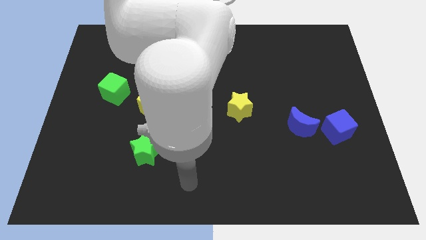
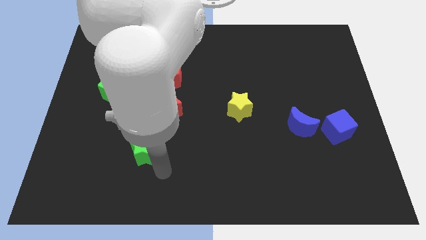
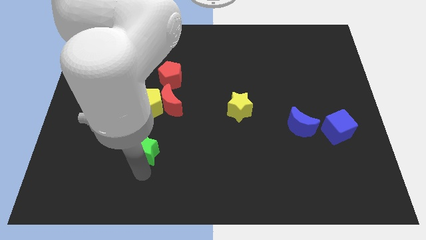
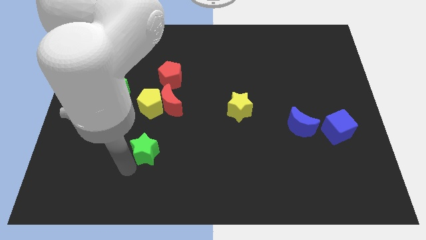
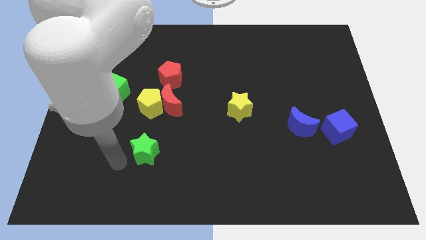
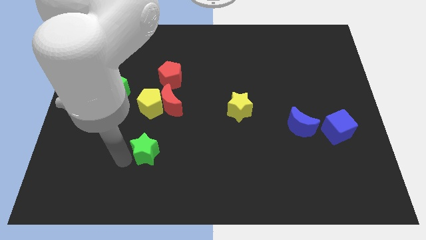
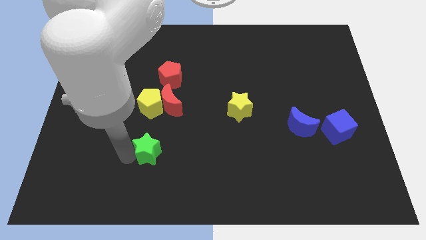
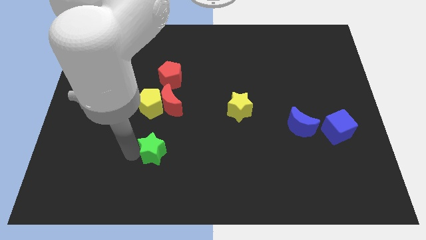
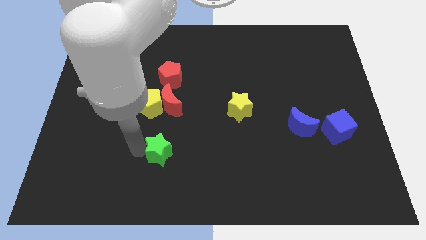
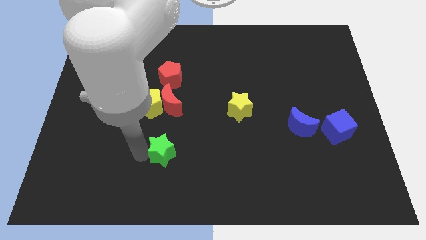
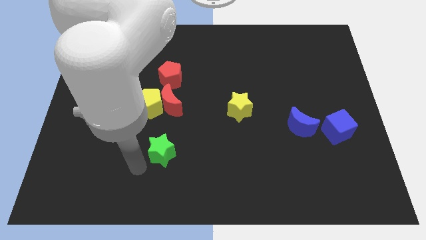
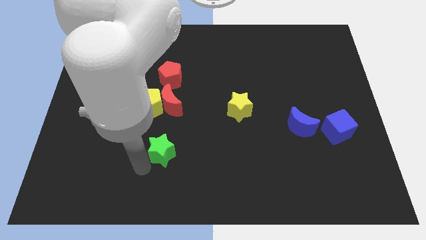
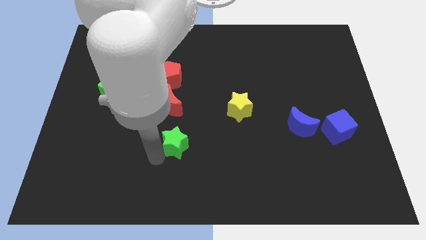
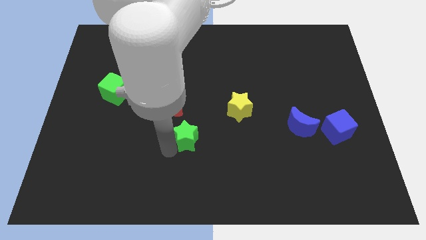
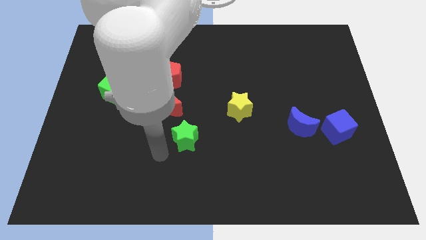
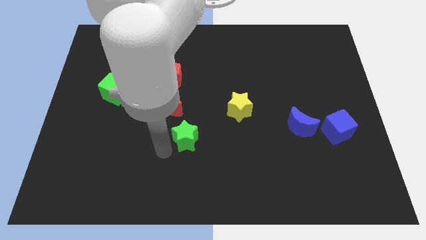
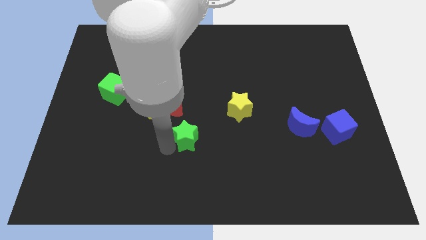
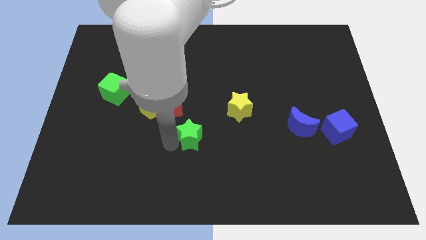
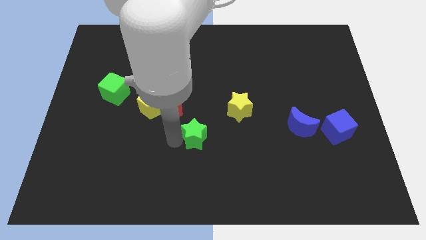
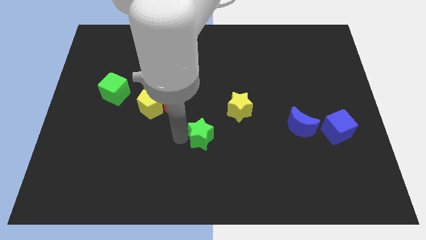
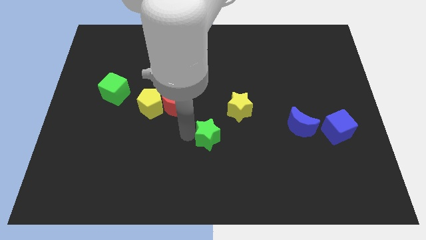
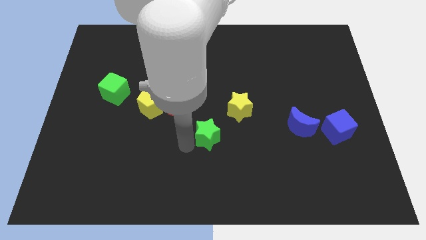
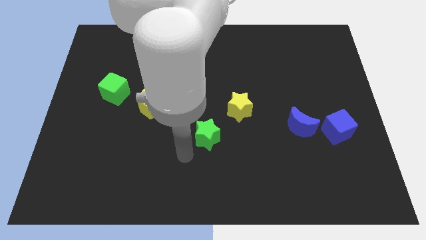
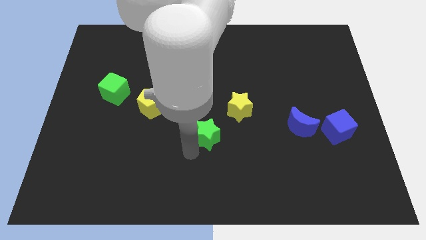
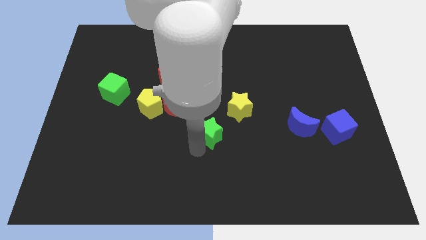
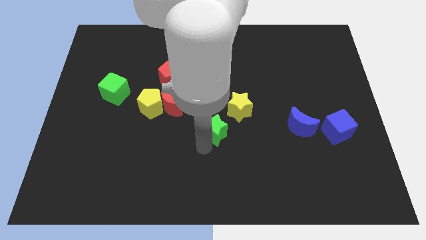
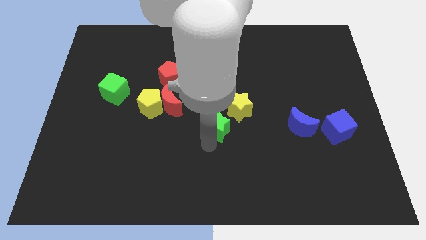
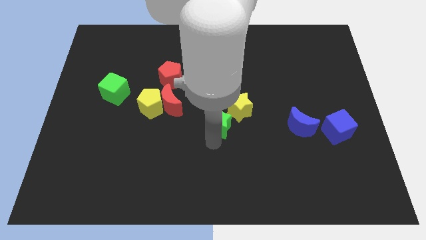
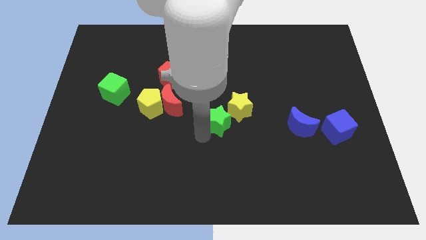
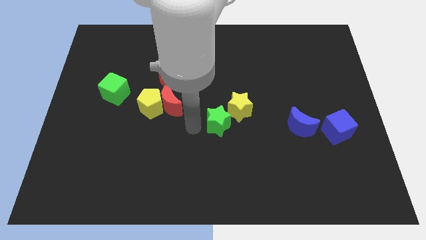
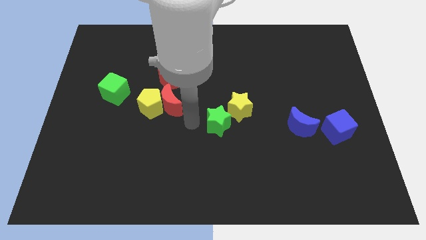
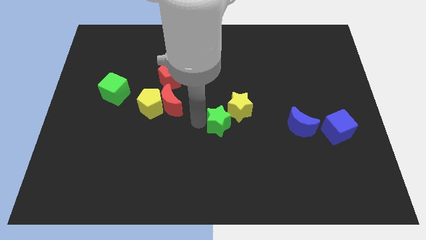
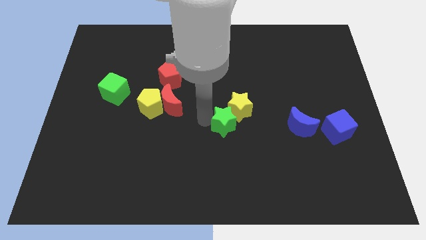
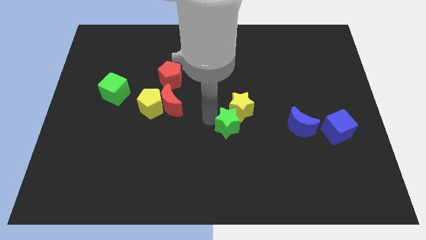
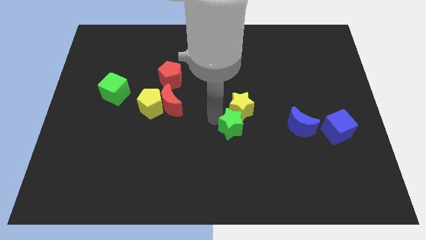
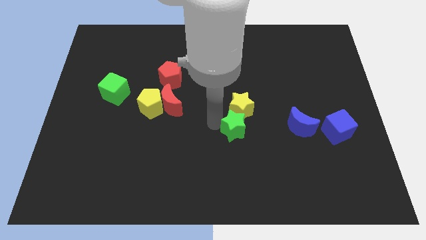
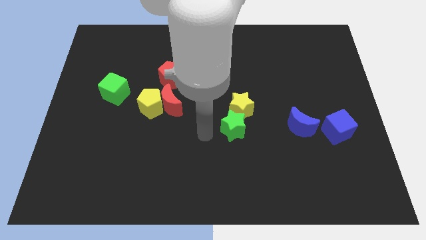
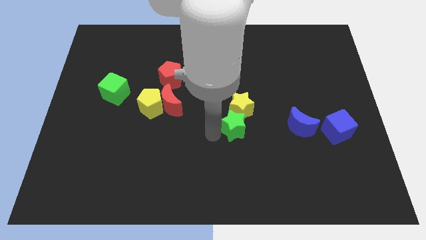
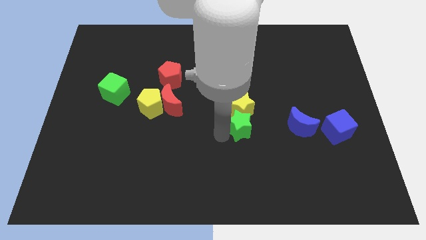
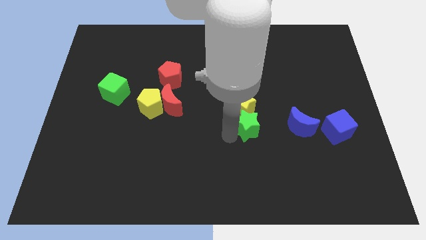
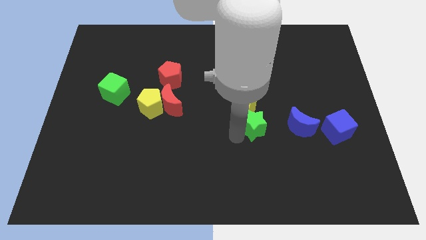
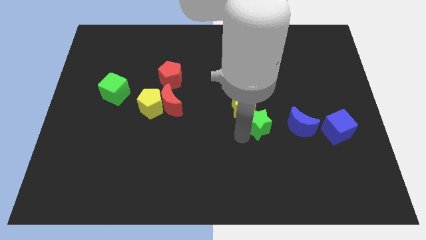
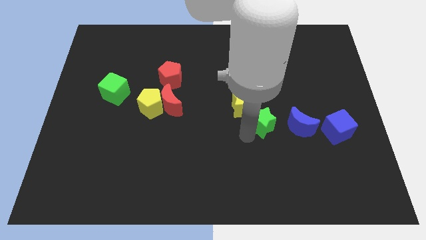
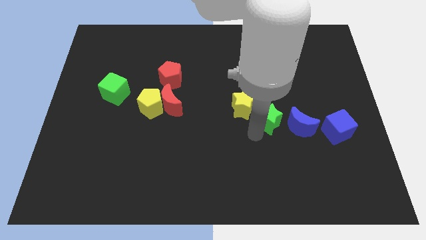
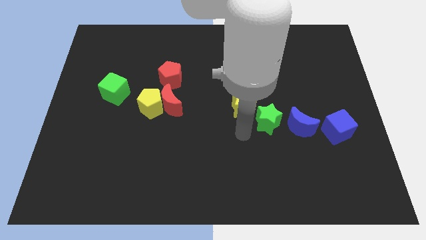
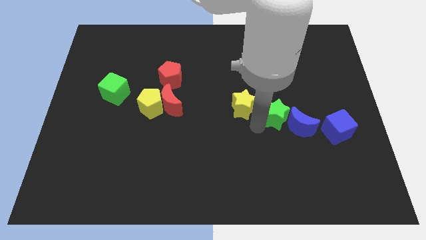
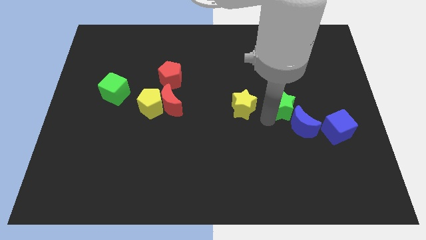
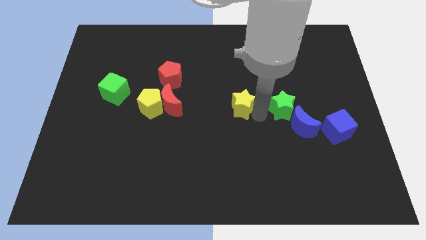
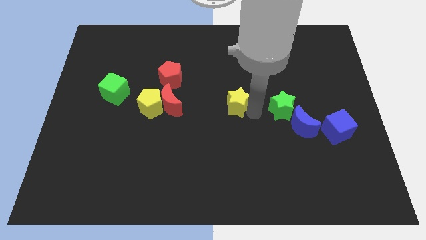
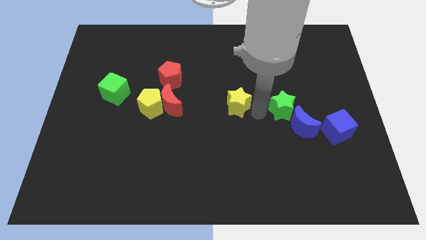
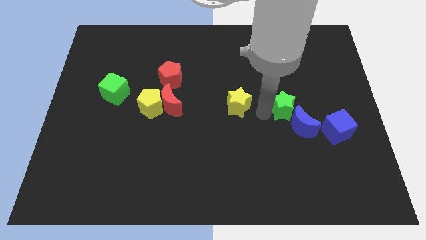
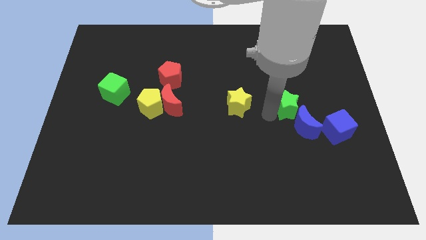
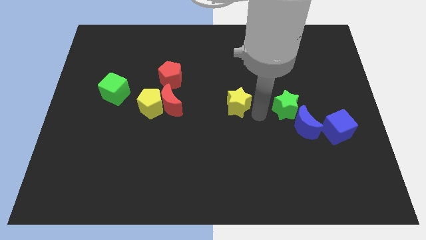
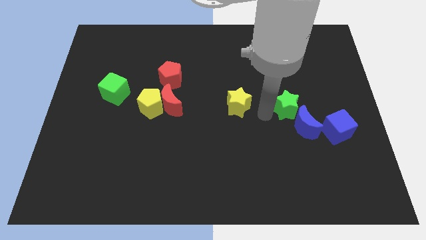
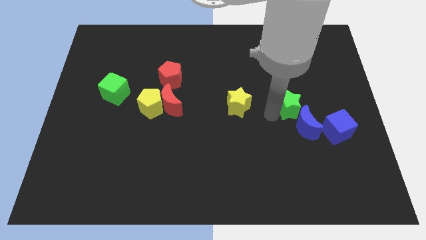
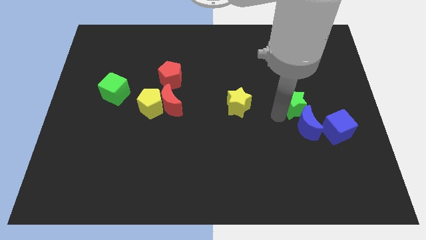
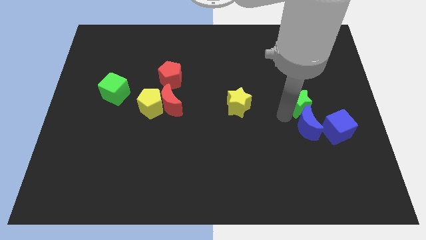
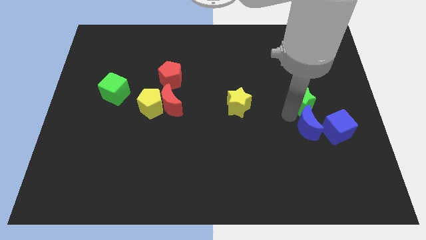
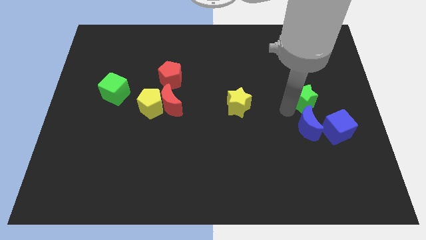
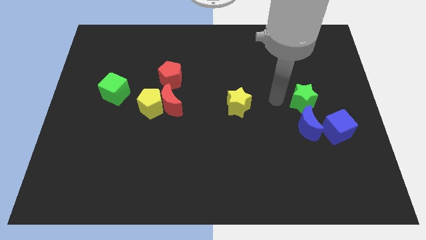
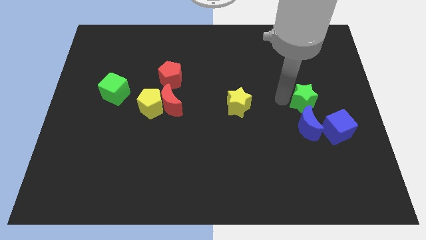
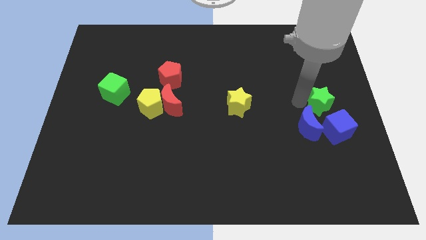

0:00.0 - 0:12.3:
move the green star to the center right
